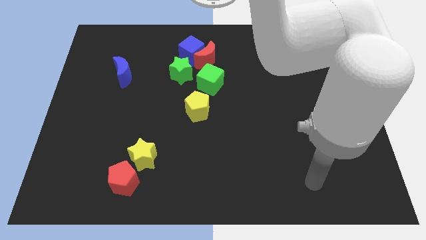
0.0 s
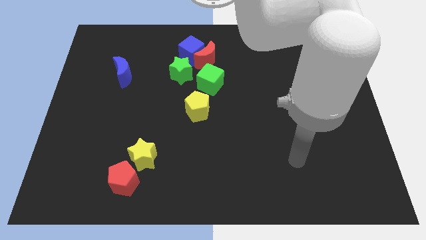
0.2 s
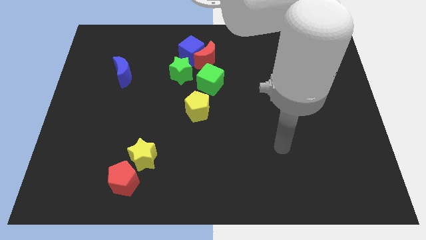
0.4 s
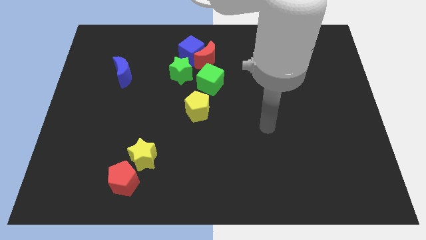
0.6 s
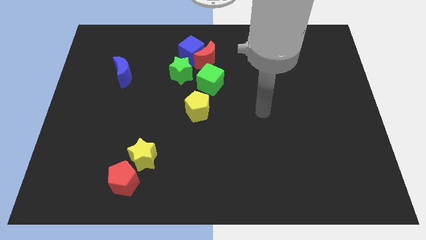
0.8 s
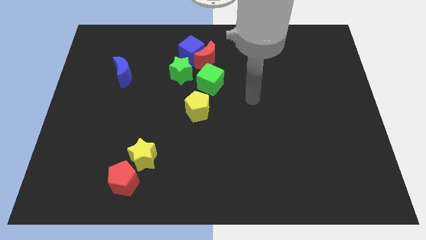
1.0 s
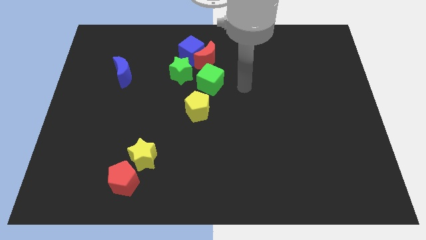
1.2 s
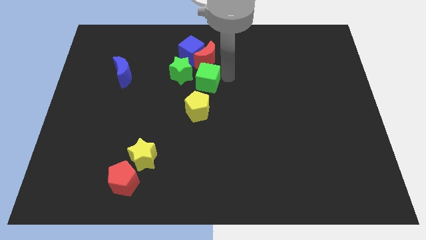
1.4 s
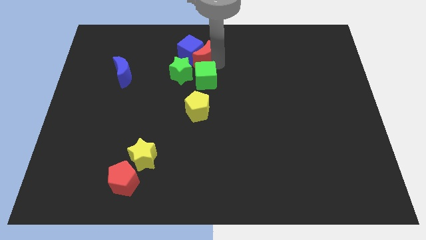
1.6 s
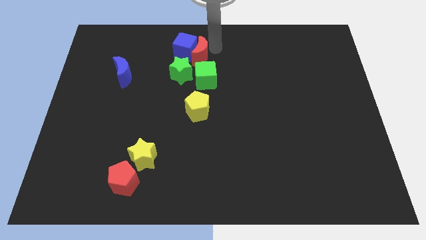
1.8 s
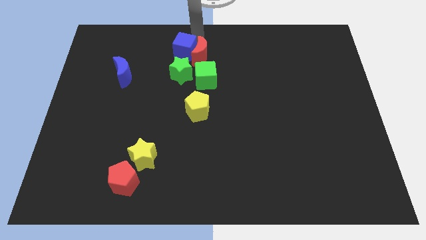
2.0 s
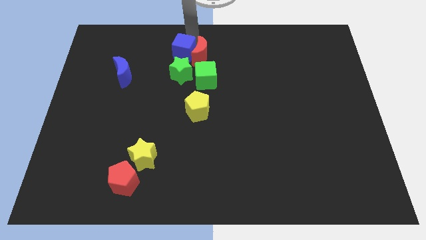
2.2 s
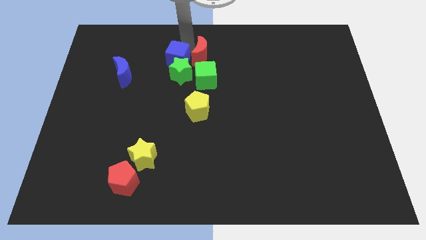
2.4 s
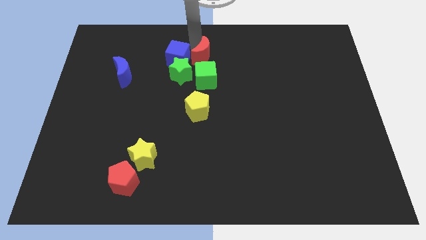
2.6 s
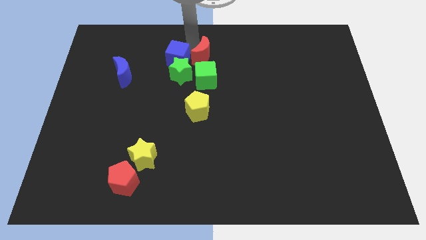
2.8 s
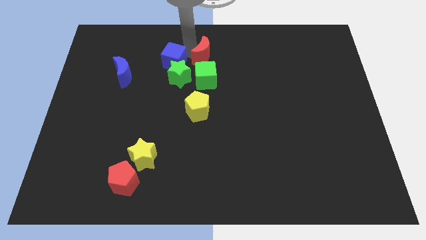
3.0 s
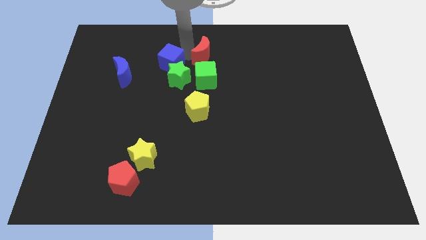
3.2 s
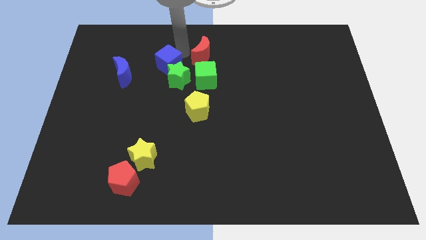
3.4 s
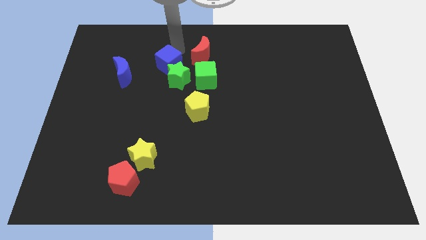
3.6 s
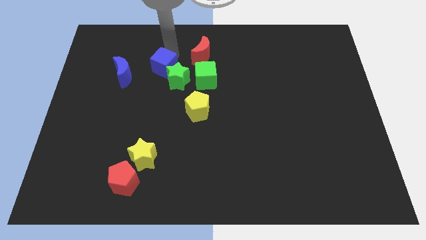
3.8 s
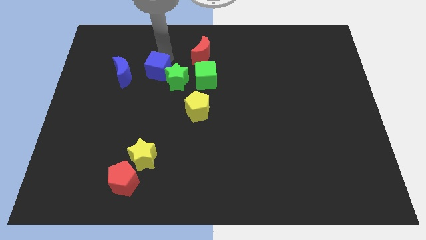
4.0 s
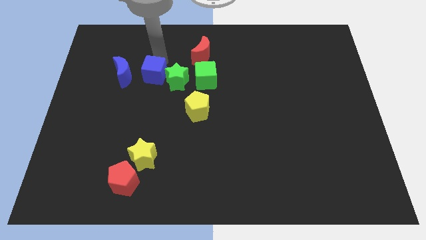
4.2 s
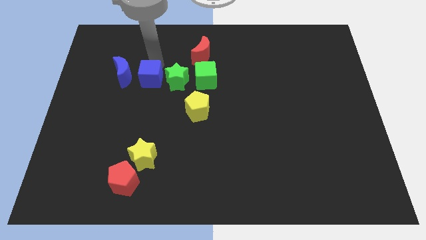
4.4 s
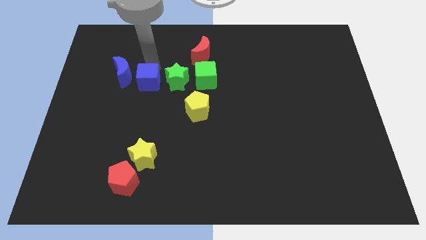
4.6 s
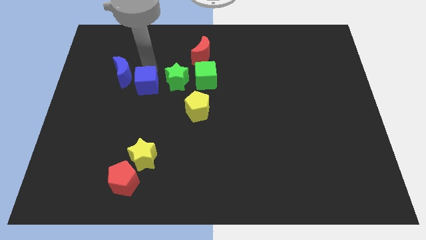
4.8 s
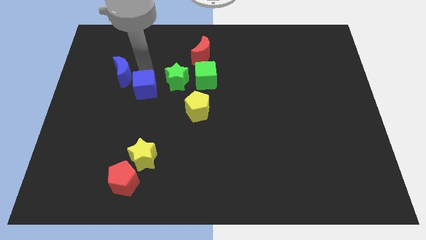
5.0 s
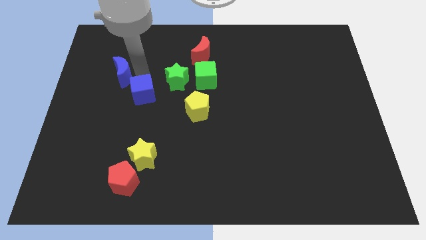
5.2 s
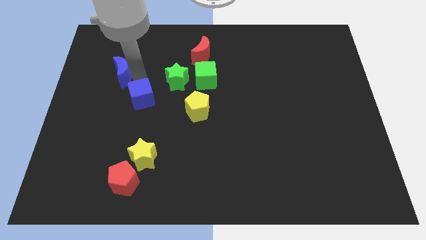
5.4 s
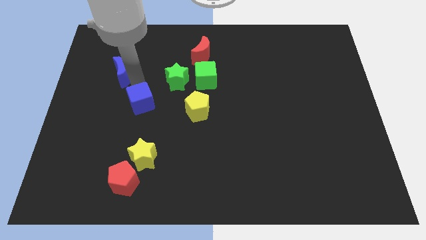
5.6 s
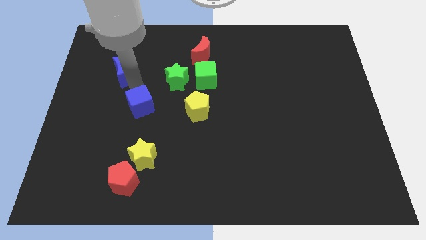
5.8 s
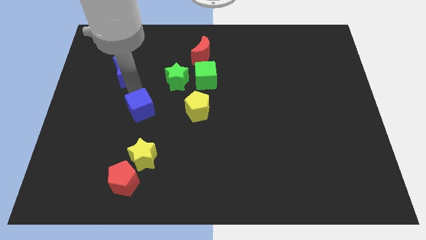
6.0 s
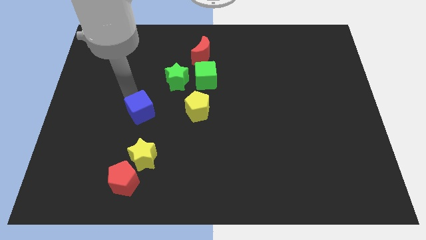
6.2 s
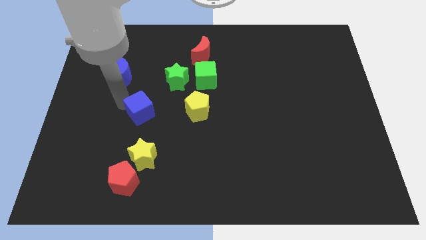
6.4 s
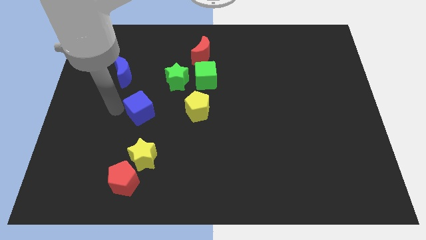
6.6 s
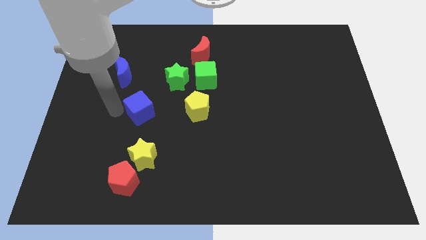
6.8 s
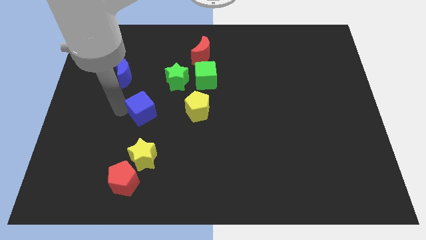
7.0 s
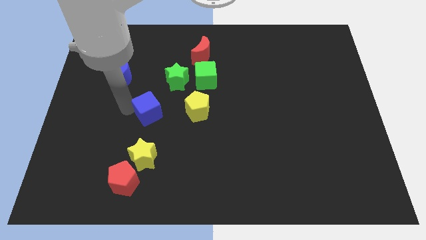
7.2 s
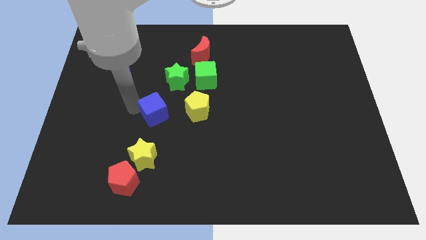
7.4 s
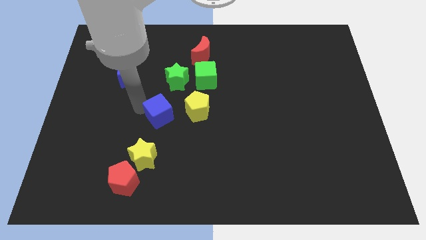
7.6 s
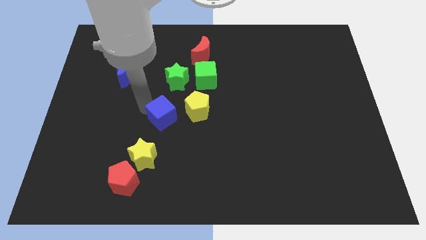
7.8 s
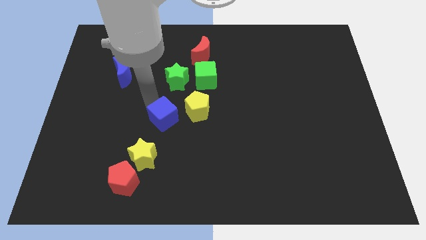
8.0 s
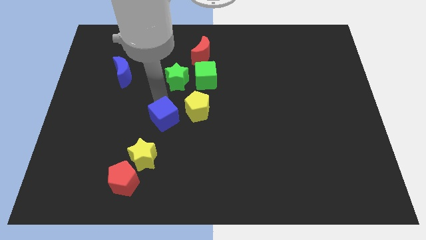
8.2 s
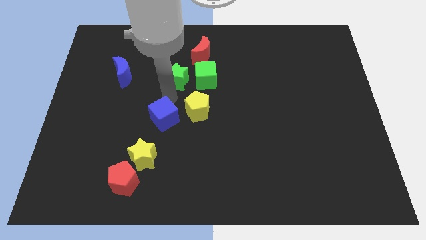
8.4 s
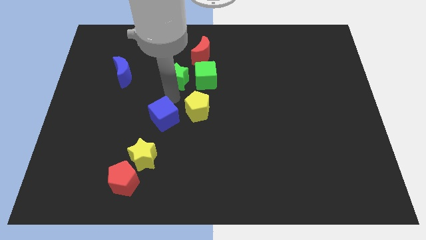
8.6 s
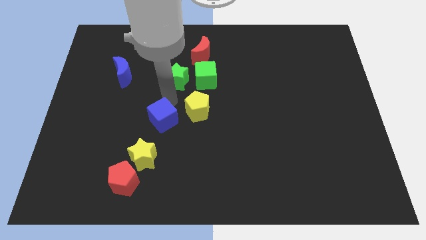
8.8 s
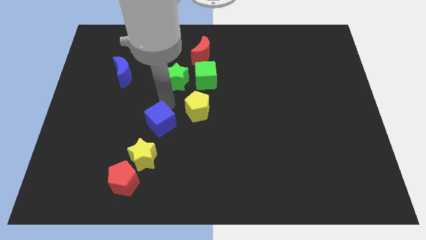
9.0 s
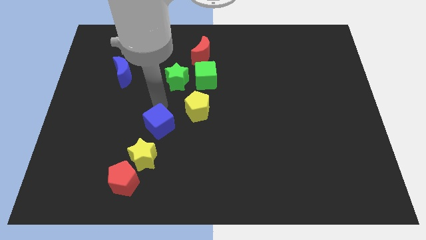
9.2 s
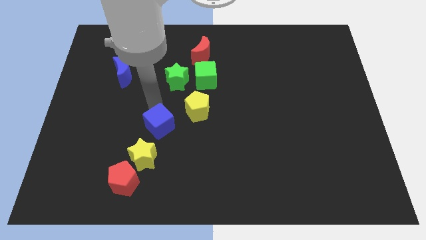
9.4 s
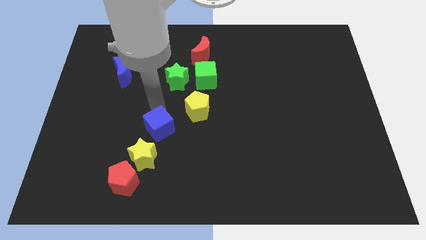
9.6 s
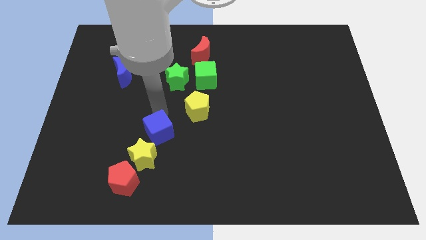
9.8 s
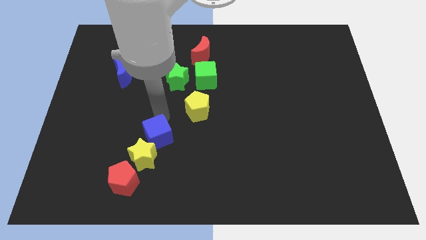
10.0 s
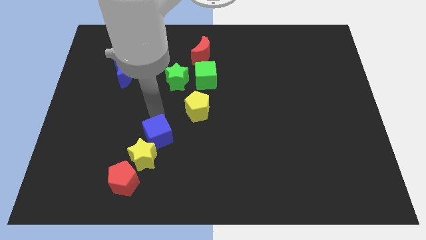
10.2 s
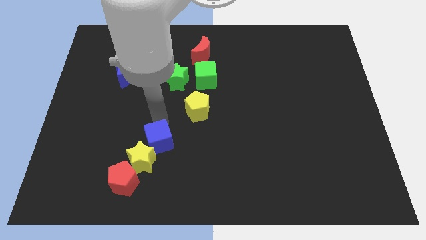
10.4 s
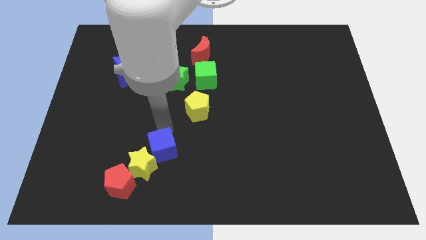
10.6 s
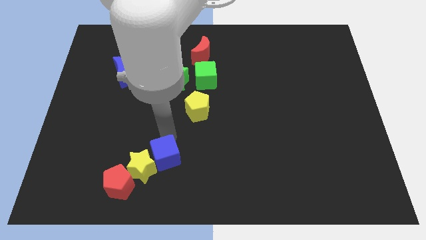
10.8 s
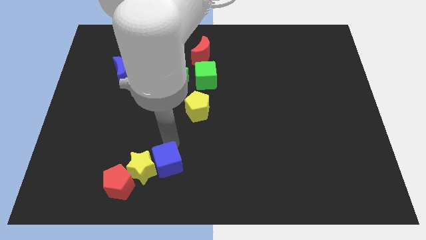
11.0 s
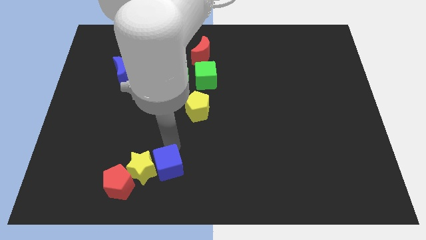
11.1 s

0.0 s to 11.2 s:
push the blue cube to the bottom right of the yellow star

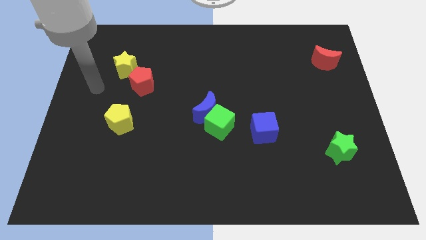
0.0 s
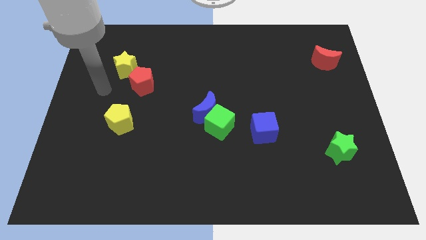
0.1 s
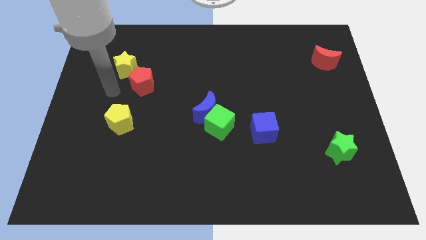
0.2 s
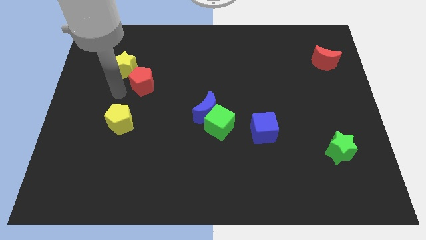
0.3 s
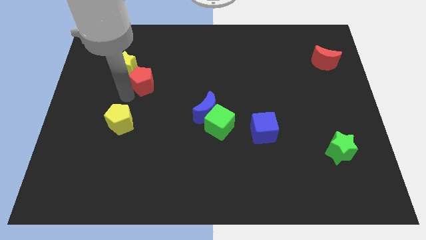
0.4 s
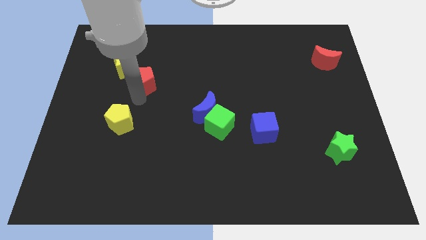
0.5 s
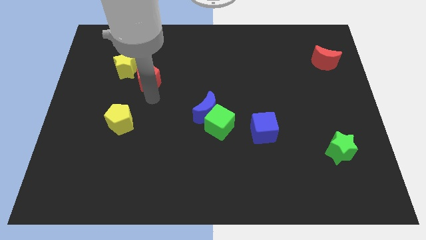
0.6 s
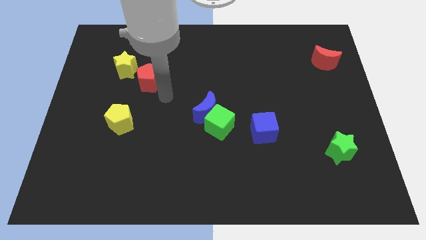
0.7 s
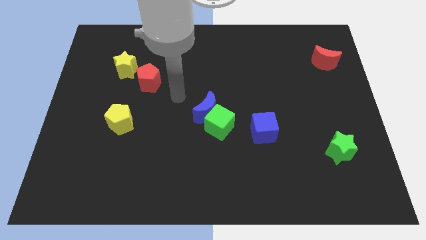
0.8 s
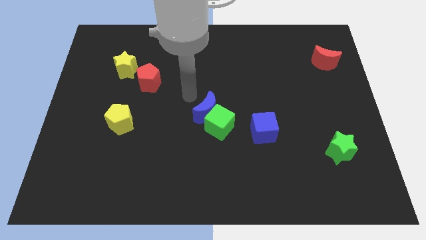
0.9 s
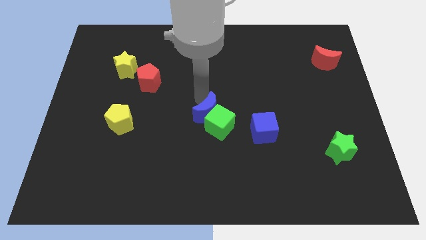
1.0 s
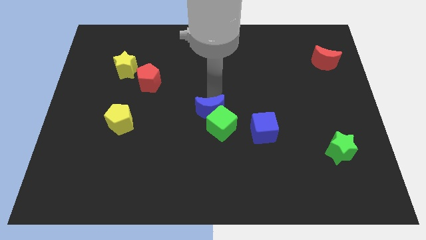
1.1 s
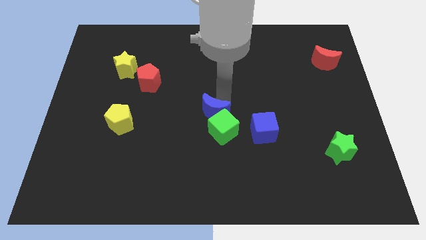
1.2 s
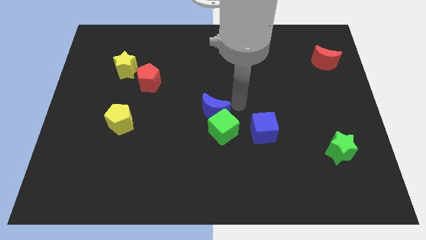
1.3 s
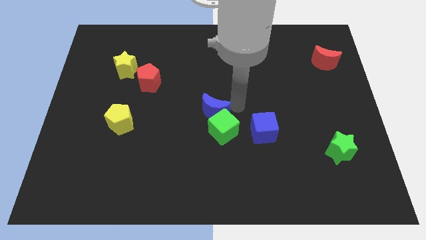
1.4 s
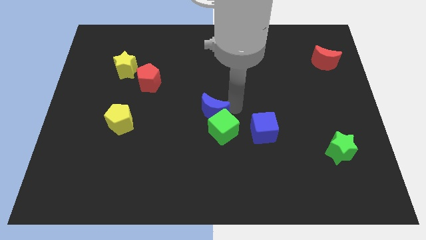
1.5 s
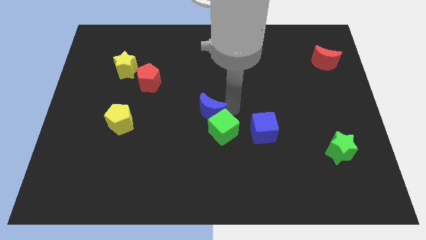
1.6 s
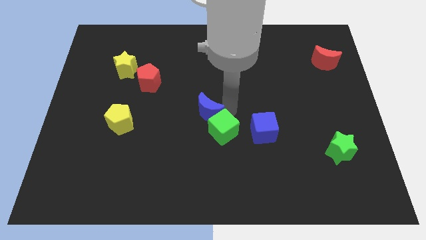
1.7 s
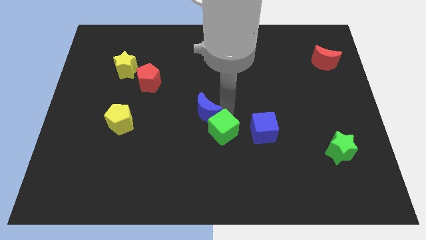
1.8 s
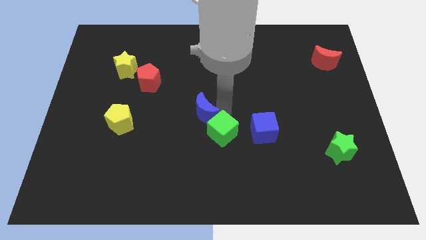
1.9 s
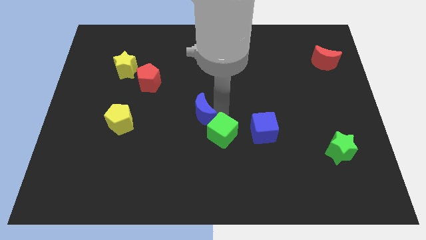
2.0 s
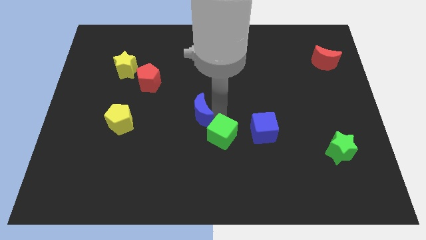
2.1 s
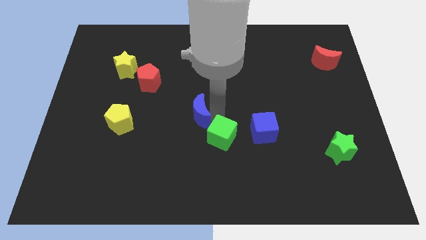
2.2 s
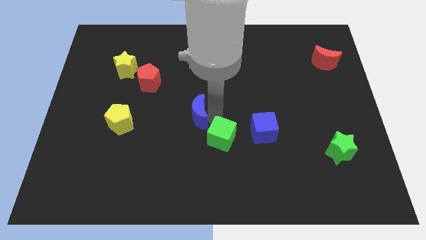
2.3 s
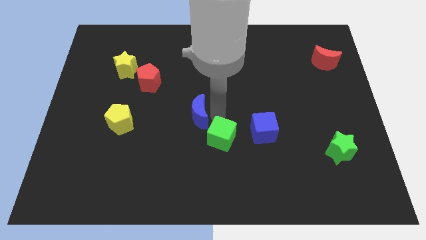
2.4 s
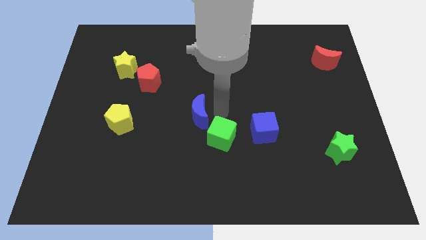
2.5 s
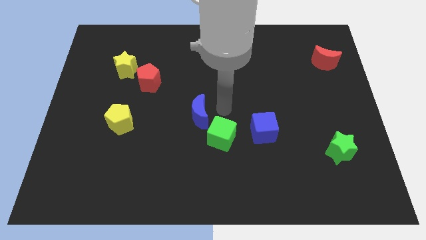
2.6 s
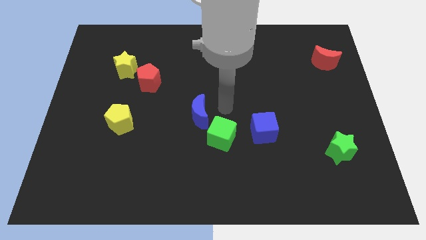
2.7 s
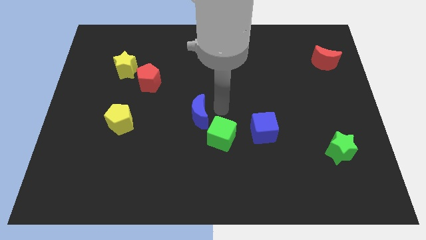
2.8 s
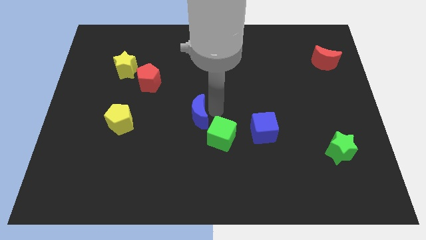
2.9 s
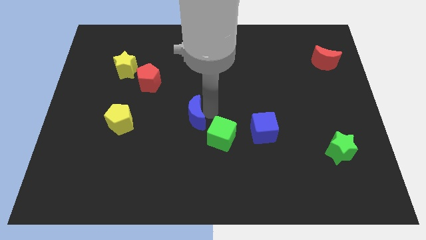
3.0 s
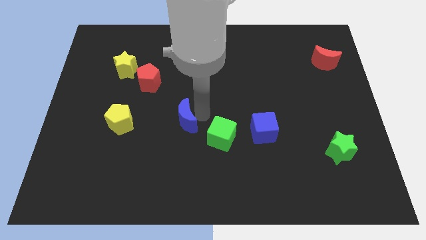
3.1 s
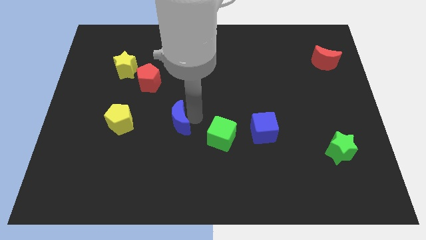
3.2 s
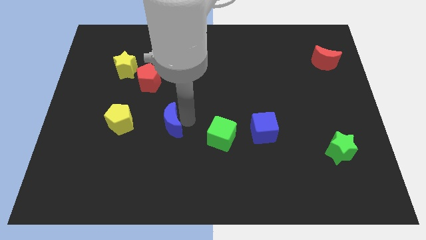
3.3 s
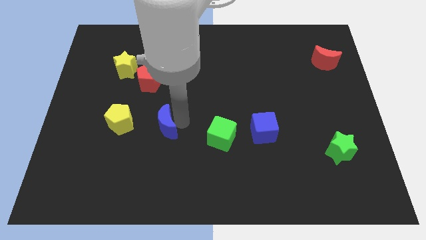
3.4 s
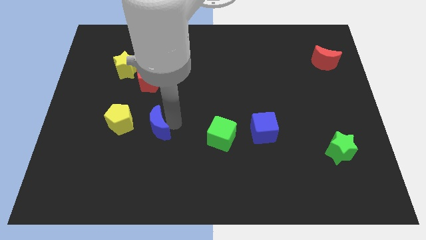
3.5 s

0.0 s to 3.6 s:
slide the blue moon to the bottom right of the yellow pentagon
